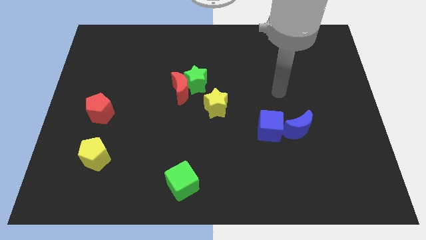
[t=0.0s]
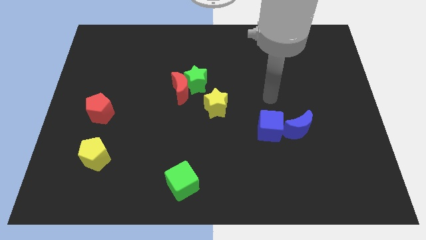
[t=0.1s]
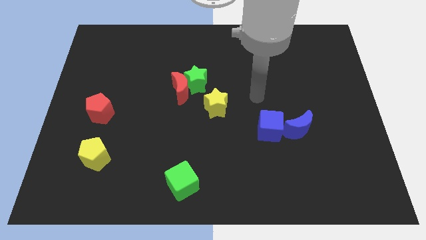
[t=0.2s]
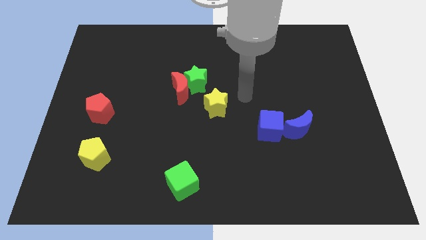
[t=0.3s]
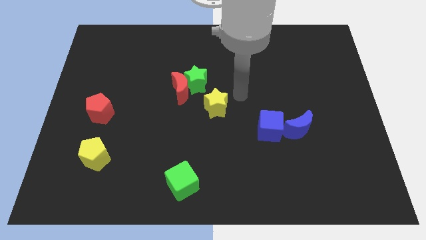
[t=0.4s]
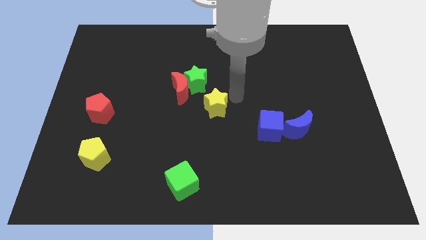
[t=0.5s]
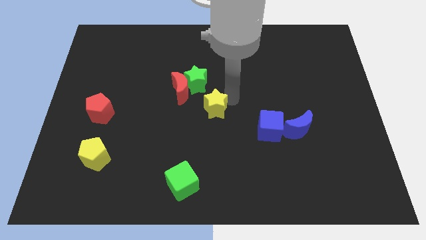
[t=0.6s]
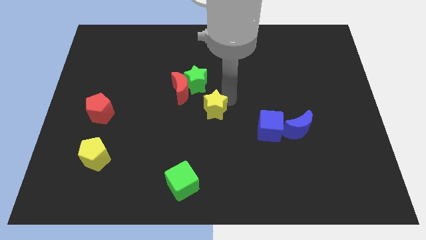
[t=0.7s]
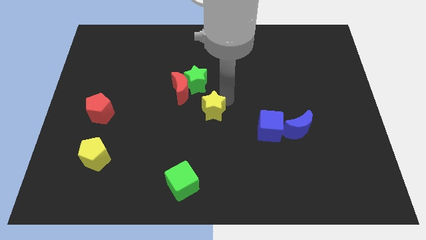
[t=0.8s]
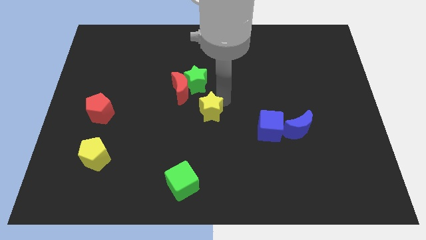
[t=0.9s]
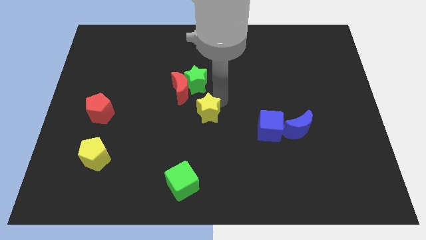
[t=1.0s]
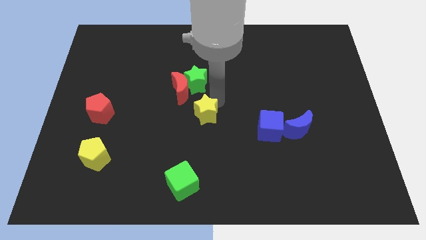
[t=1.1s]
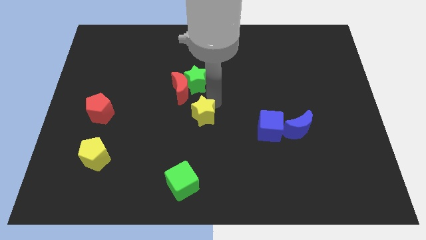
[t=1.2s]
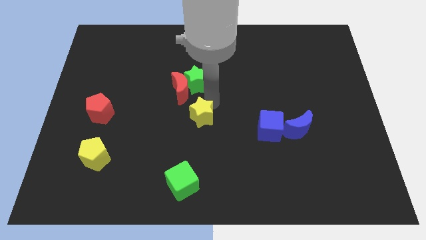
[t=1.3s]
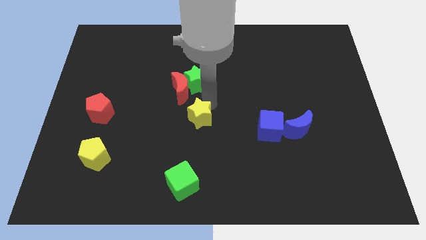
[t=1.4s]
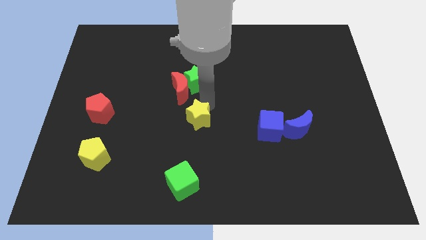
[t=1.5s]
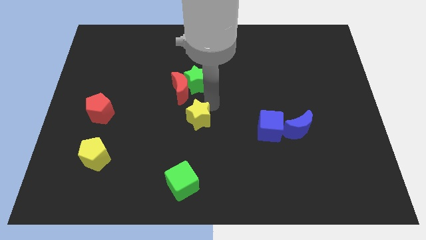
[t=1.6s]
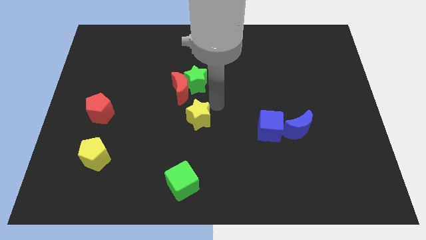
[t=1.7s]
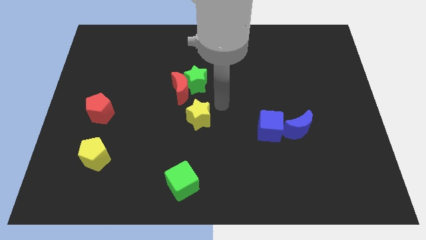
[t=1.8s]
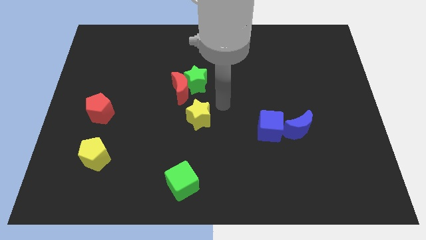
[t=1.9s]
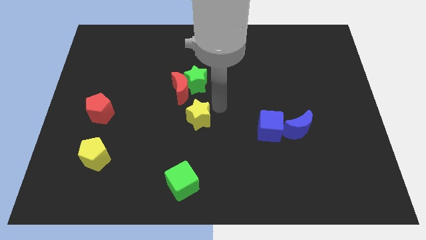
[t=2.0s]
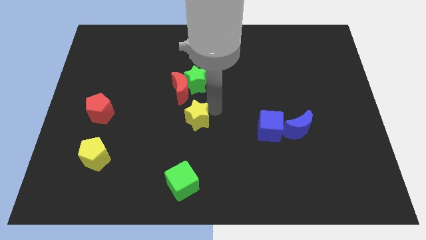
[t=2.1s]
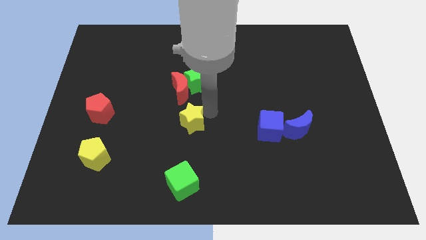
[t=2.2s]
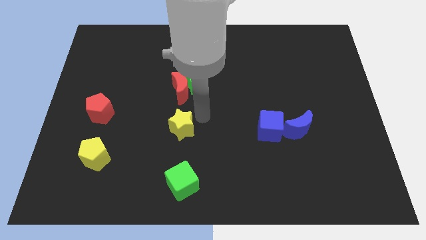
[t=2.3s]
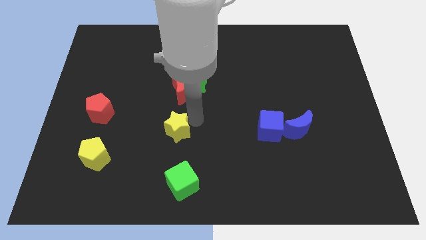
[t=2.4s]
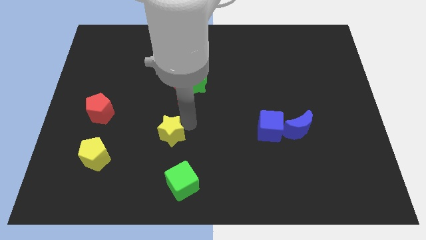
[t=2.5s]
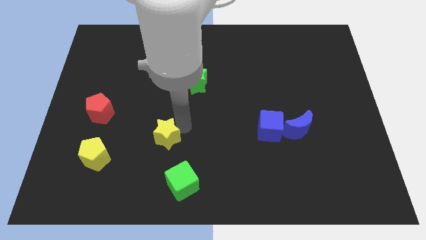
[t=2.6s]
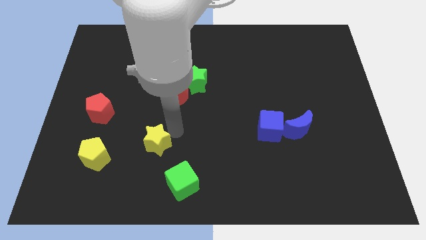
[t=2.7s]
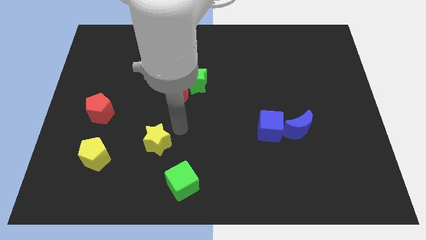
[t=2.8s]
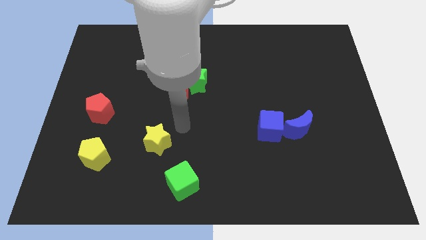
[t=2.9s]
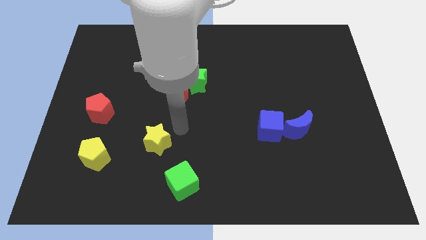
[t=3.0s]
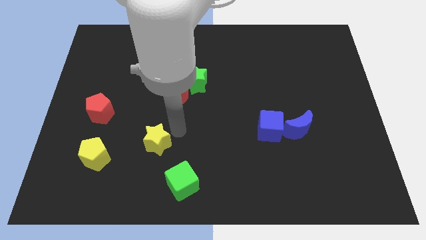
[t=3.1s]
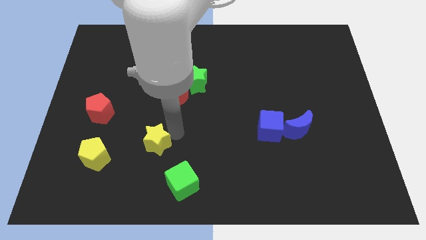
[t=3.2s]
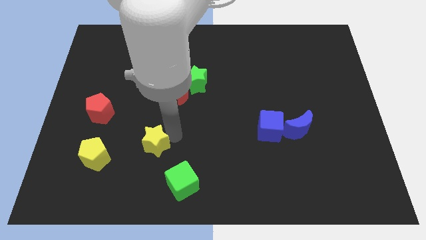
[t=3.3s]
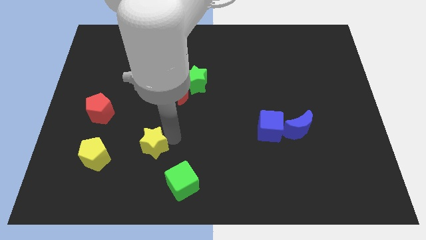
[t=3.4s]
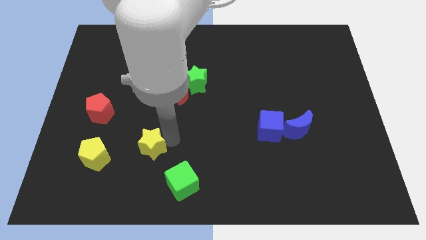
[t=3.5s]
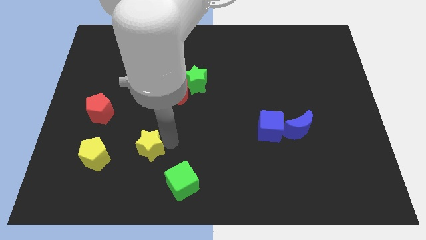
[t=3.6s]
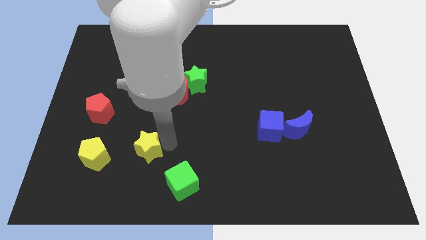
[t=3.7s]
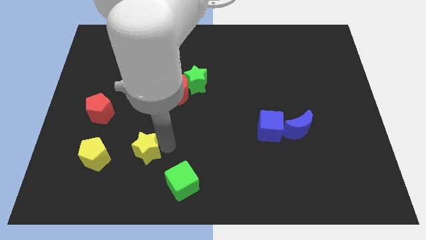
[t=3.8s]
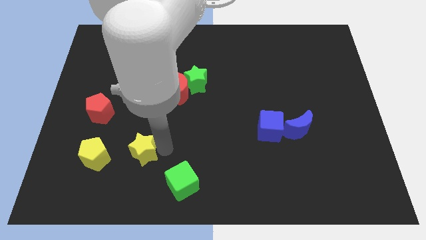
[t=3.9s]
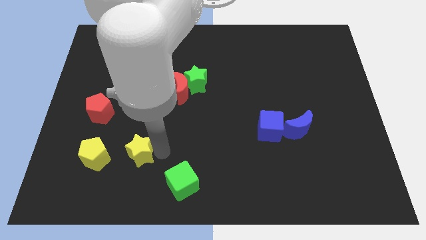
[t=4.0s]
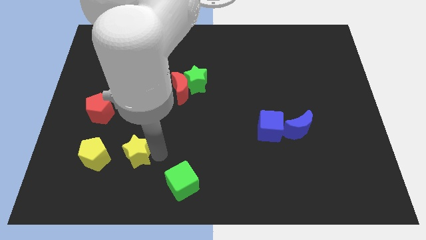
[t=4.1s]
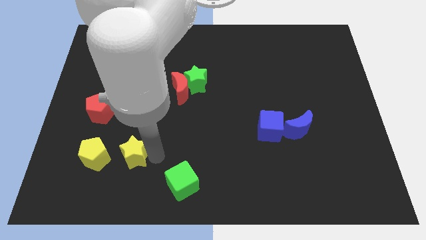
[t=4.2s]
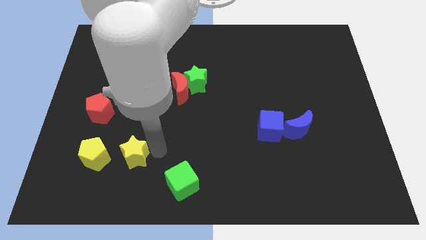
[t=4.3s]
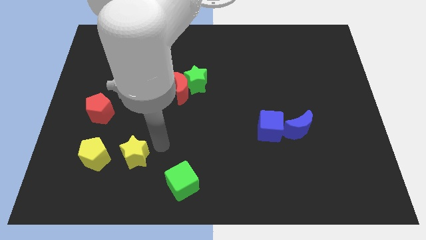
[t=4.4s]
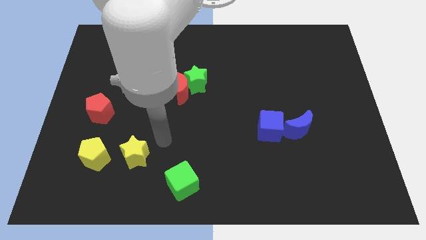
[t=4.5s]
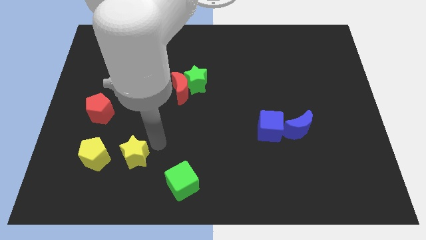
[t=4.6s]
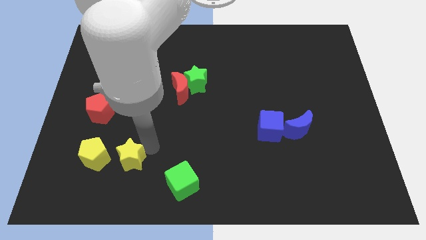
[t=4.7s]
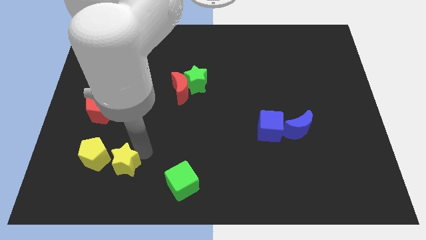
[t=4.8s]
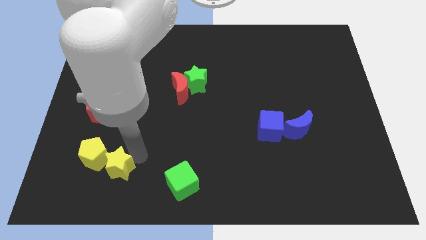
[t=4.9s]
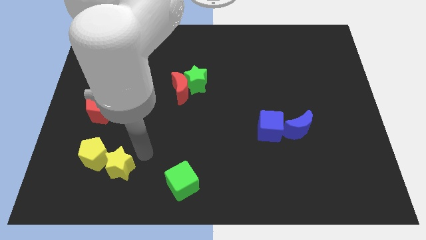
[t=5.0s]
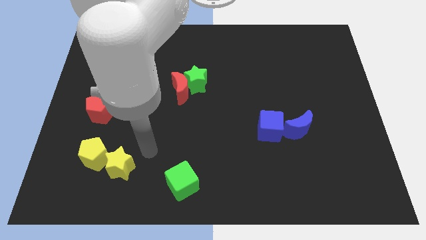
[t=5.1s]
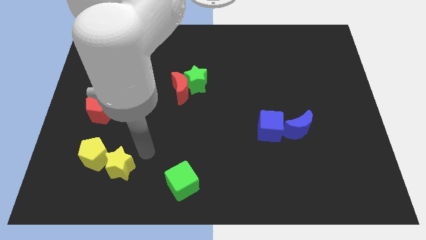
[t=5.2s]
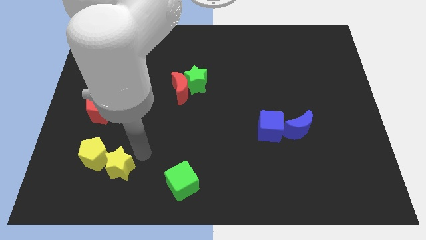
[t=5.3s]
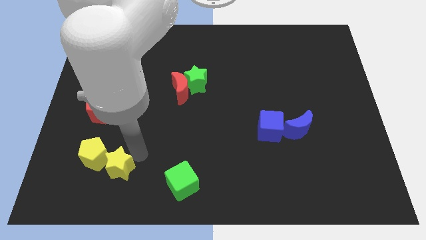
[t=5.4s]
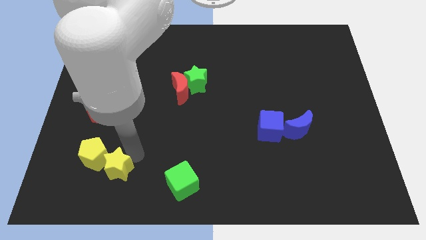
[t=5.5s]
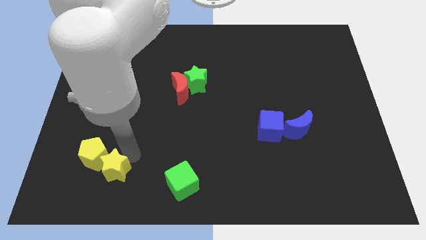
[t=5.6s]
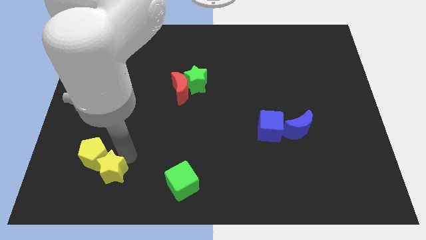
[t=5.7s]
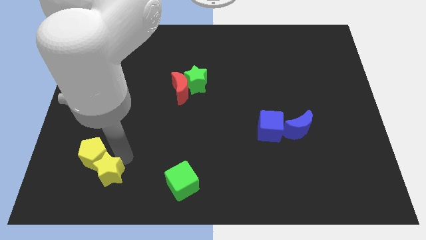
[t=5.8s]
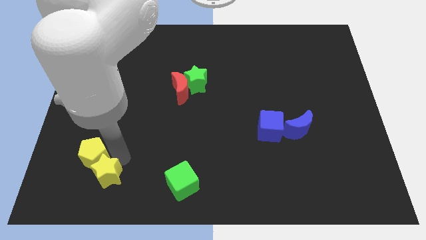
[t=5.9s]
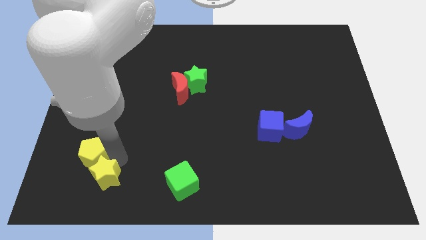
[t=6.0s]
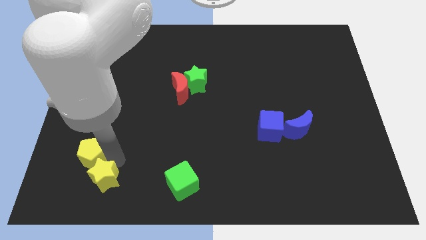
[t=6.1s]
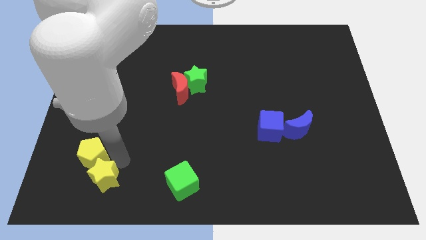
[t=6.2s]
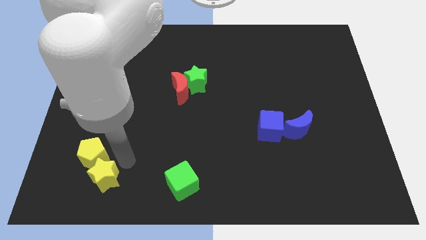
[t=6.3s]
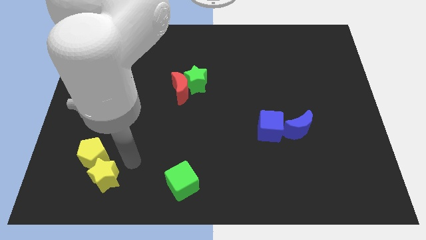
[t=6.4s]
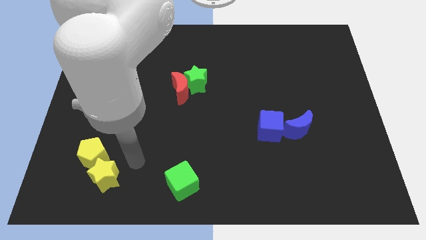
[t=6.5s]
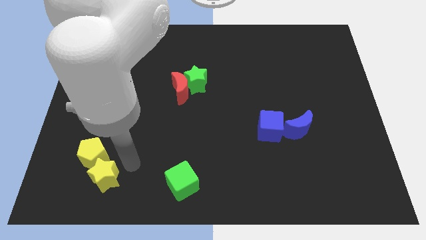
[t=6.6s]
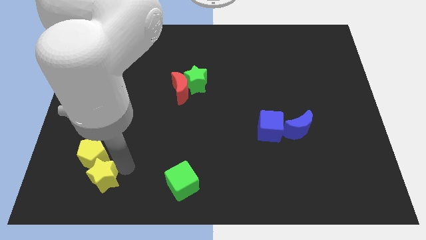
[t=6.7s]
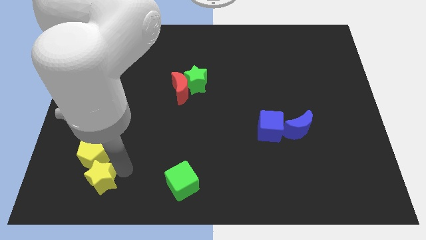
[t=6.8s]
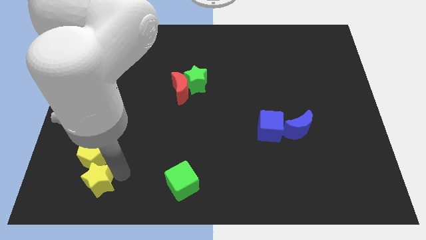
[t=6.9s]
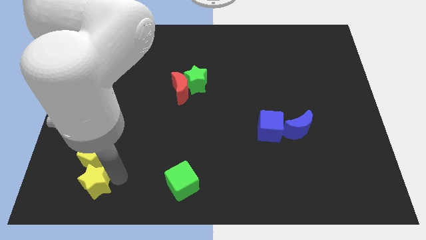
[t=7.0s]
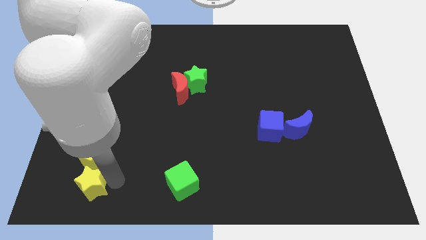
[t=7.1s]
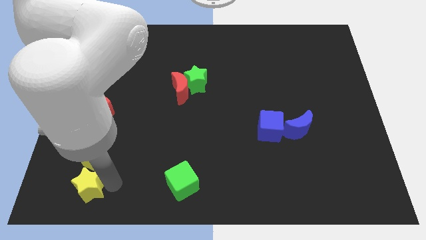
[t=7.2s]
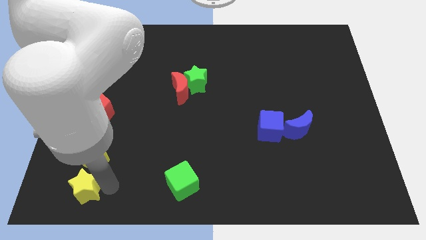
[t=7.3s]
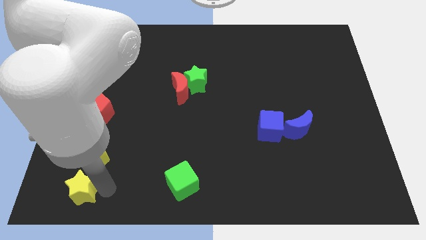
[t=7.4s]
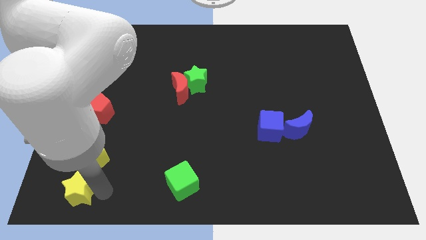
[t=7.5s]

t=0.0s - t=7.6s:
put the yellow star to the bottom left of the board
